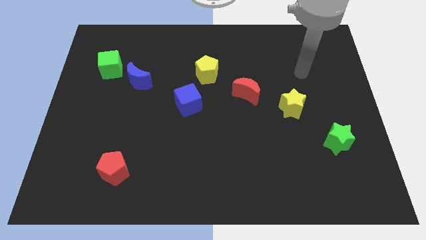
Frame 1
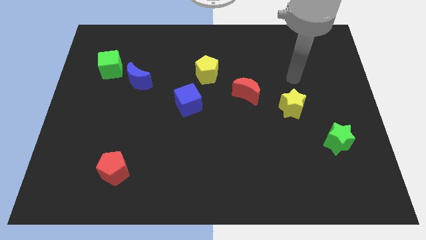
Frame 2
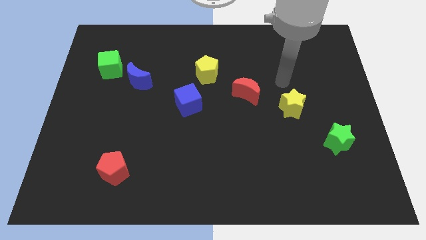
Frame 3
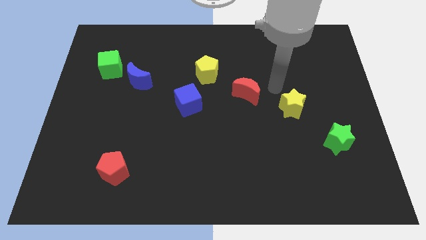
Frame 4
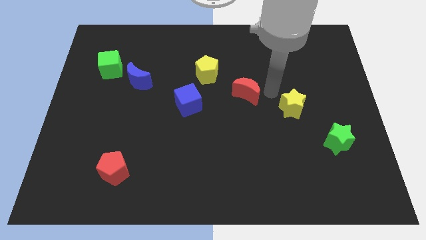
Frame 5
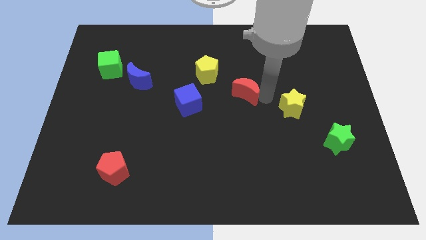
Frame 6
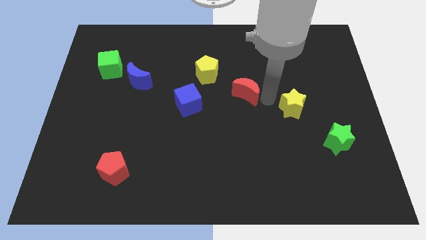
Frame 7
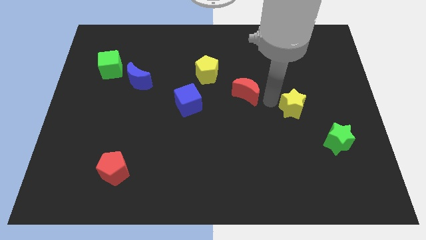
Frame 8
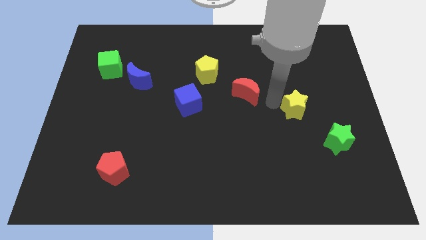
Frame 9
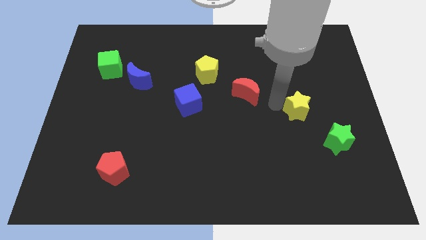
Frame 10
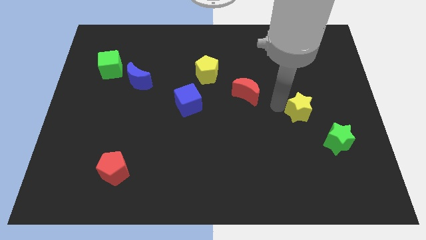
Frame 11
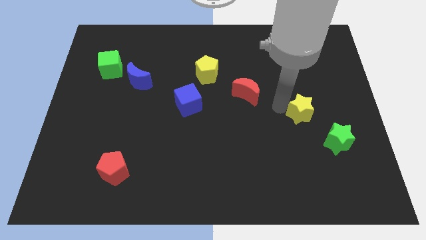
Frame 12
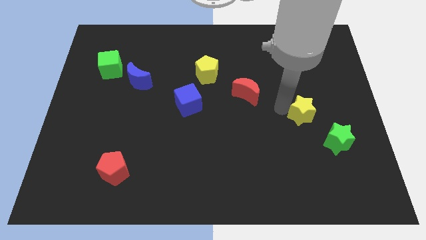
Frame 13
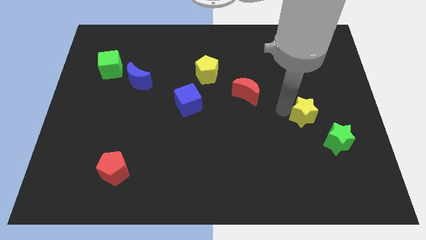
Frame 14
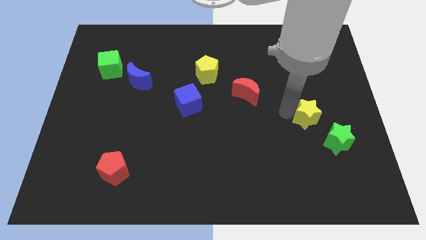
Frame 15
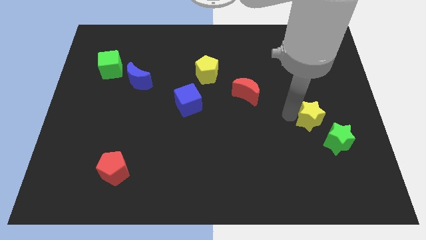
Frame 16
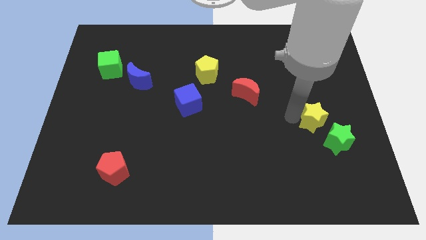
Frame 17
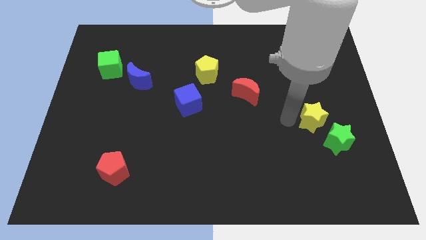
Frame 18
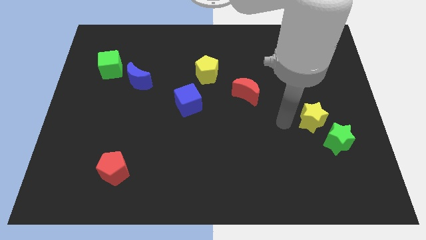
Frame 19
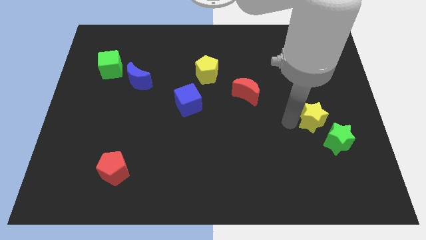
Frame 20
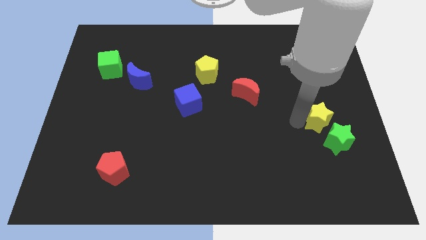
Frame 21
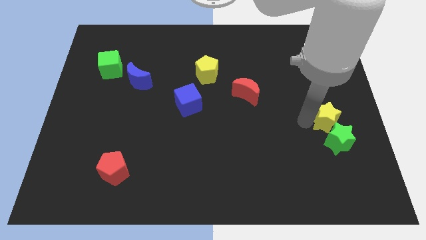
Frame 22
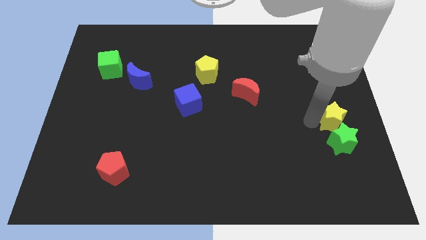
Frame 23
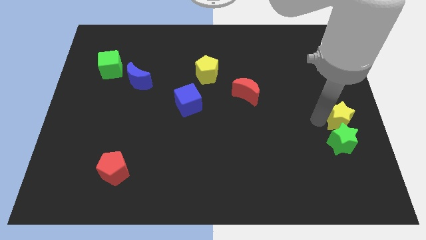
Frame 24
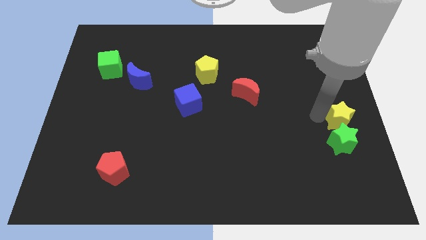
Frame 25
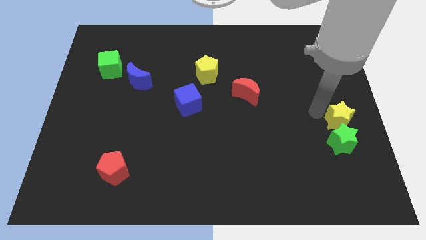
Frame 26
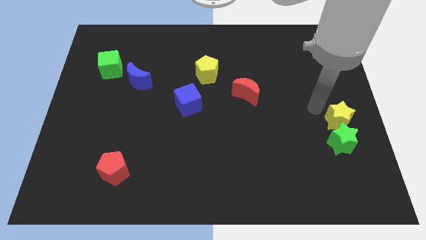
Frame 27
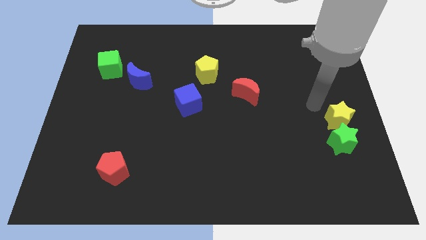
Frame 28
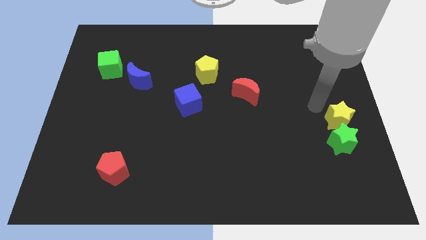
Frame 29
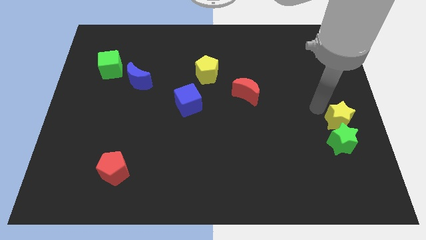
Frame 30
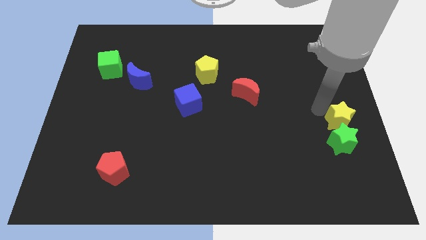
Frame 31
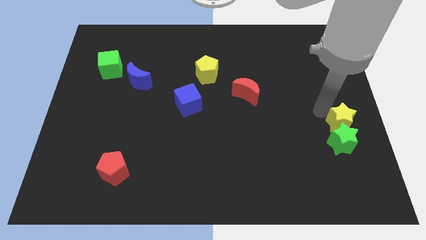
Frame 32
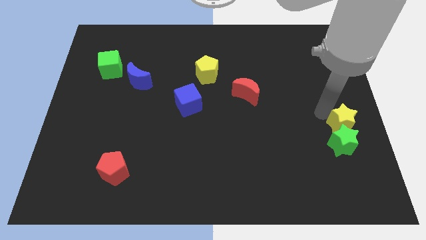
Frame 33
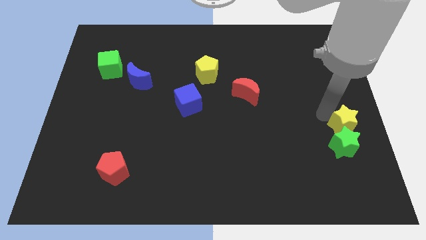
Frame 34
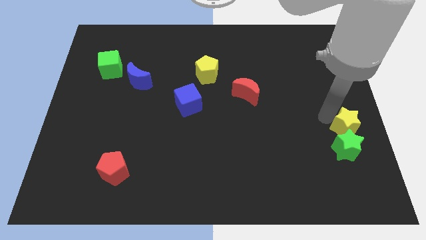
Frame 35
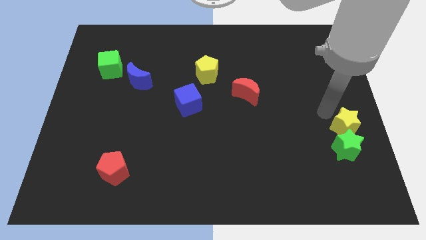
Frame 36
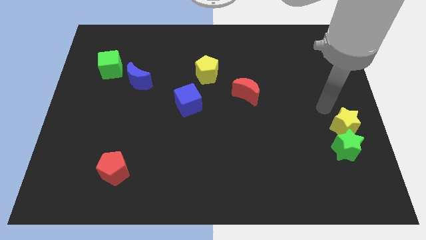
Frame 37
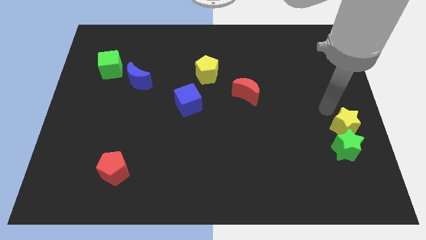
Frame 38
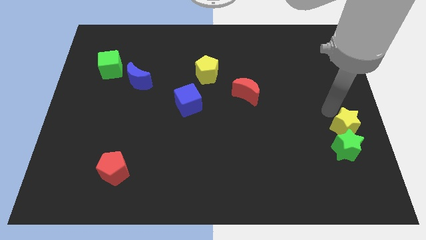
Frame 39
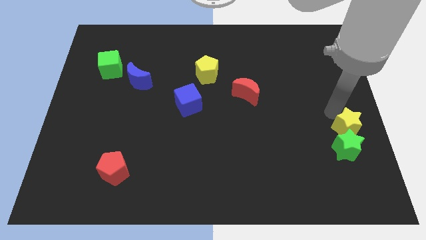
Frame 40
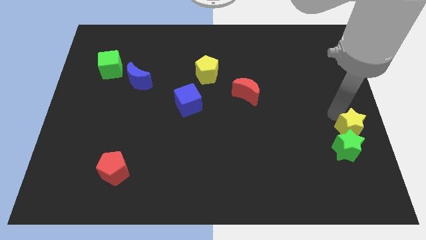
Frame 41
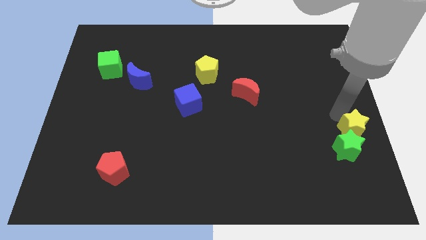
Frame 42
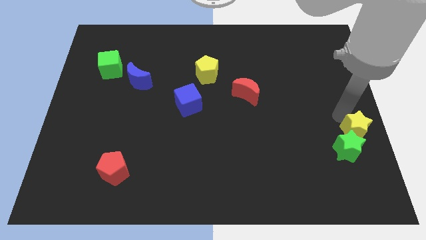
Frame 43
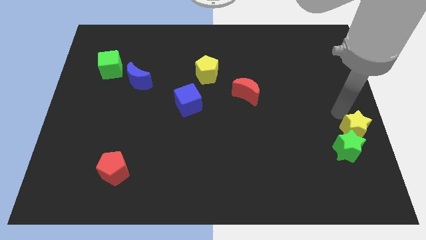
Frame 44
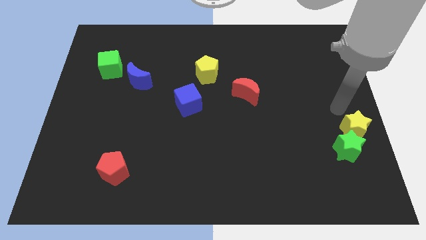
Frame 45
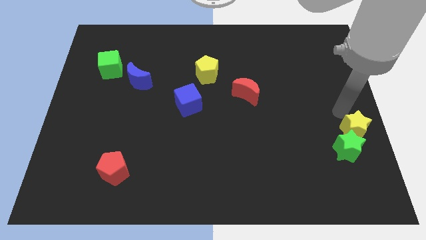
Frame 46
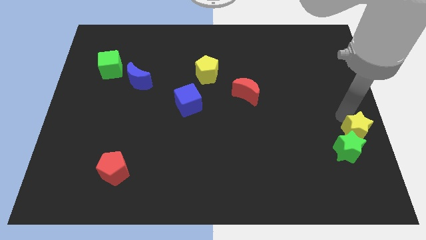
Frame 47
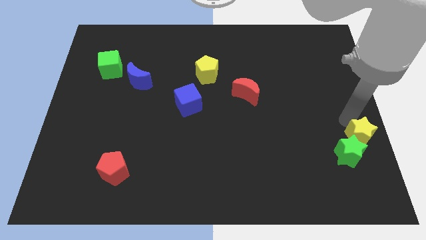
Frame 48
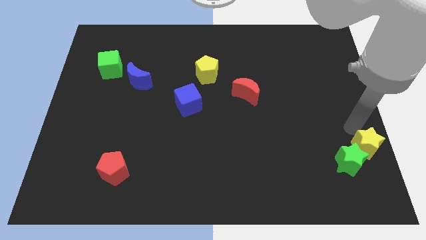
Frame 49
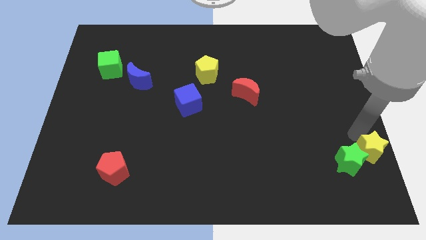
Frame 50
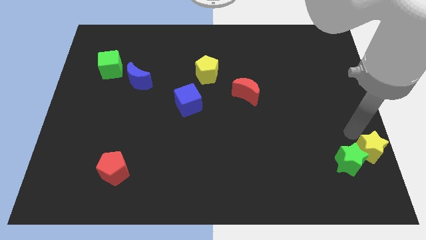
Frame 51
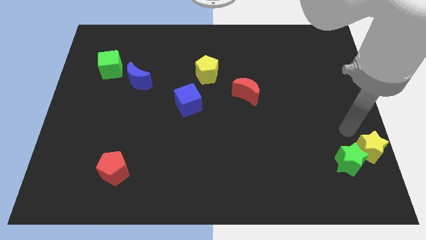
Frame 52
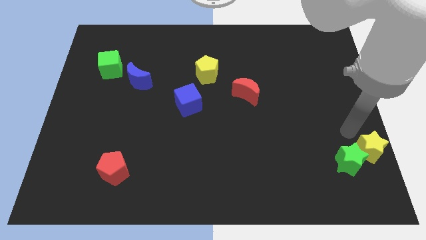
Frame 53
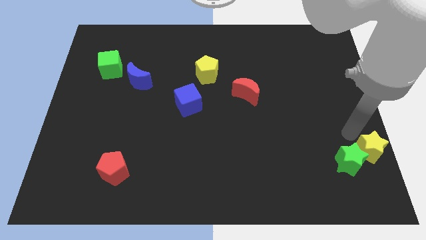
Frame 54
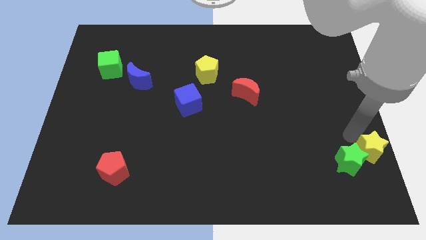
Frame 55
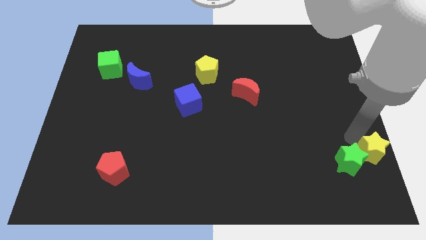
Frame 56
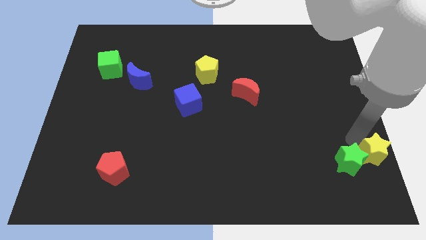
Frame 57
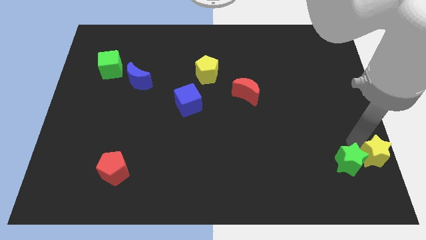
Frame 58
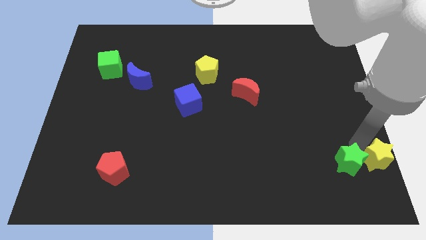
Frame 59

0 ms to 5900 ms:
push the yellow star to the bottom right corner

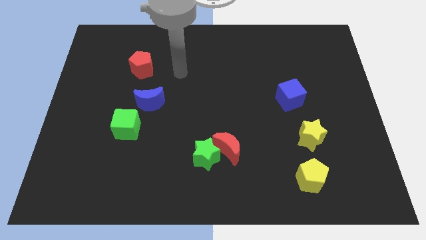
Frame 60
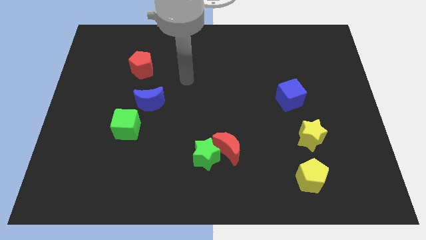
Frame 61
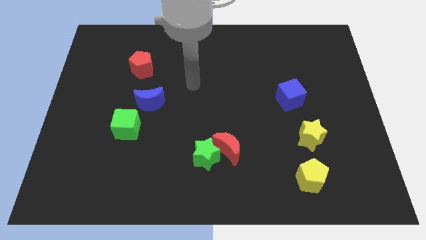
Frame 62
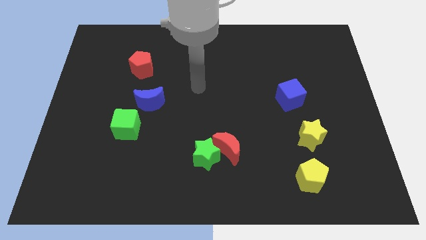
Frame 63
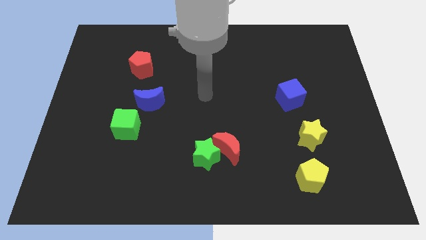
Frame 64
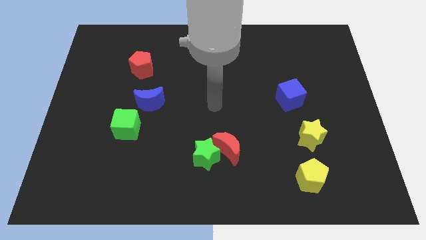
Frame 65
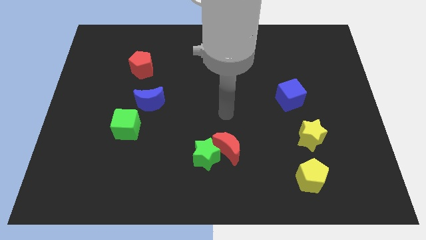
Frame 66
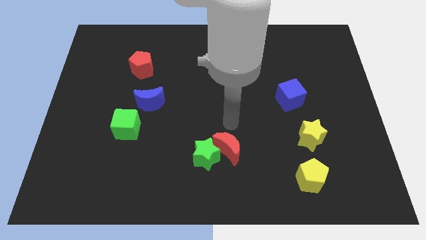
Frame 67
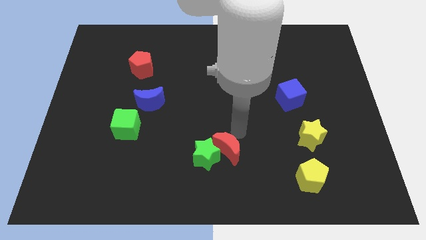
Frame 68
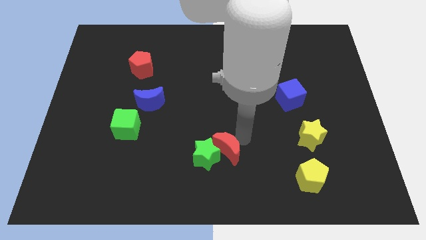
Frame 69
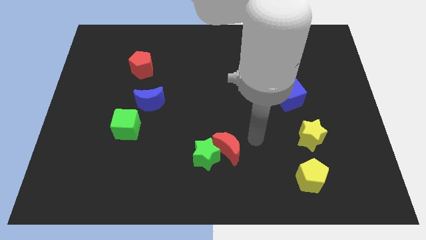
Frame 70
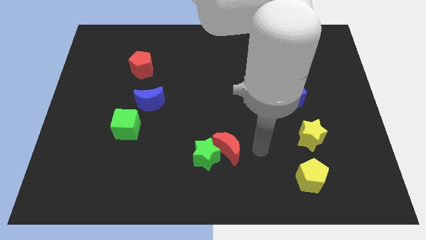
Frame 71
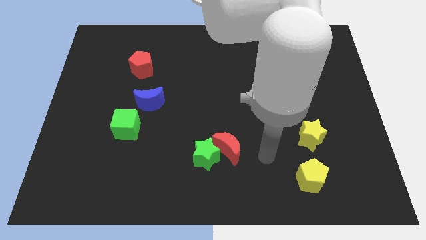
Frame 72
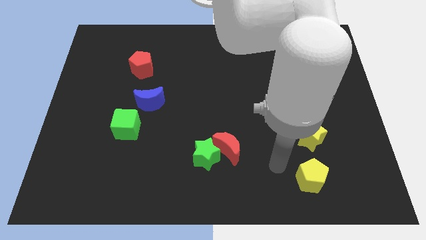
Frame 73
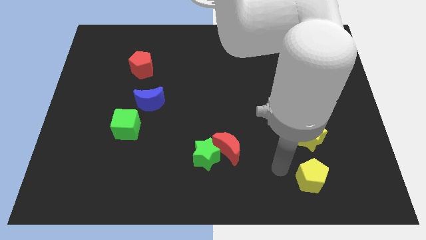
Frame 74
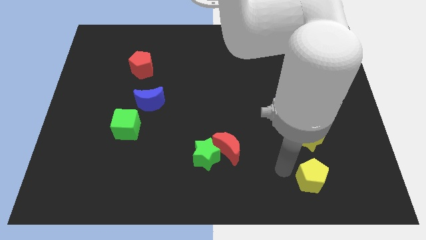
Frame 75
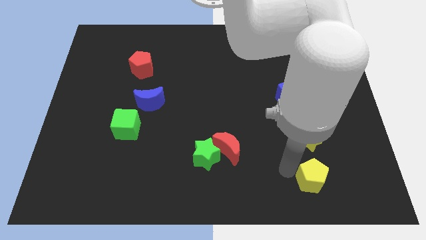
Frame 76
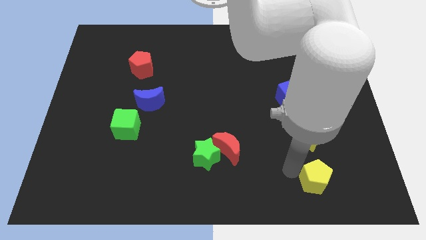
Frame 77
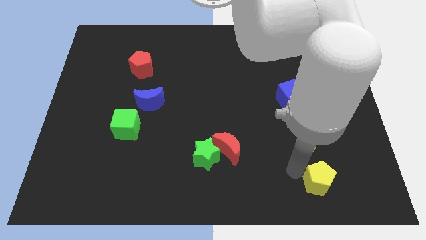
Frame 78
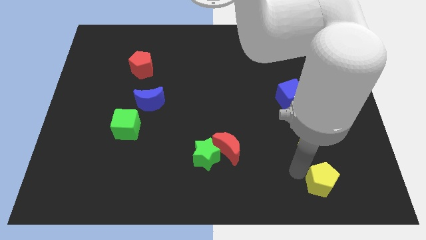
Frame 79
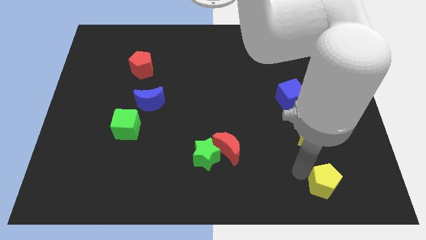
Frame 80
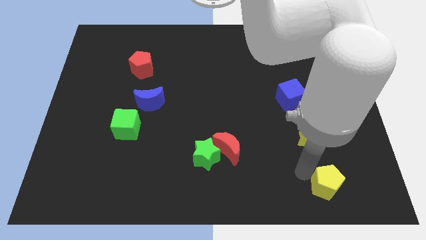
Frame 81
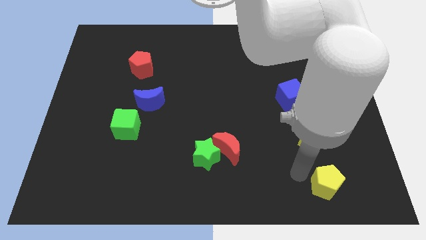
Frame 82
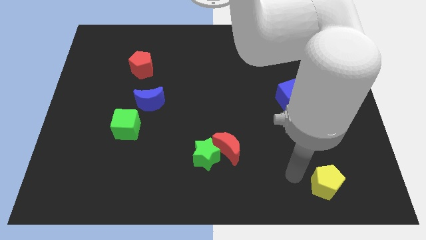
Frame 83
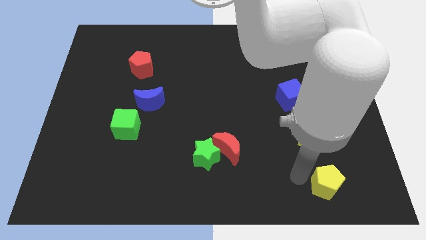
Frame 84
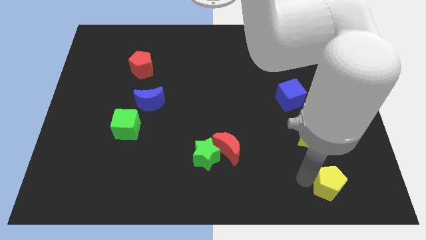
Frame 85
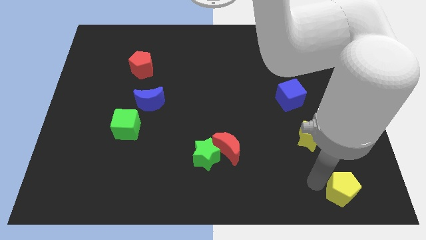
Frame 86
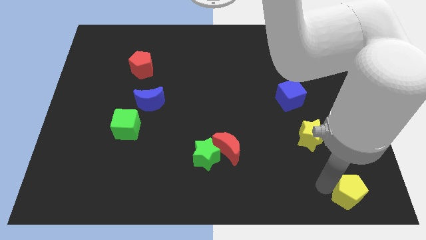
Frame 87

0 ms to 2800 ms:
move the yellow pentagon to the bottom right corner
